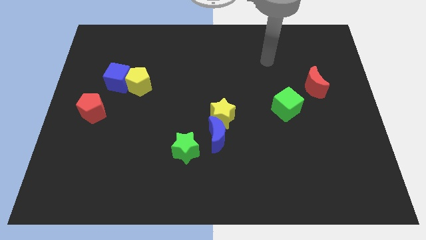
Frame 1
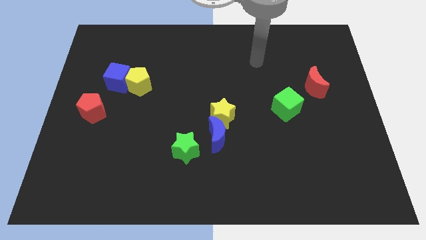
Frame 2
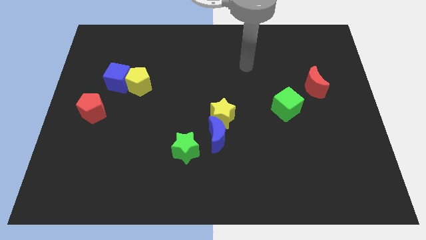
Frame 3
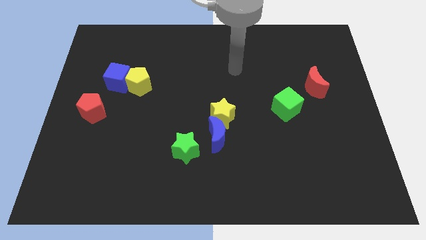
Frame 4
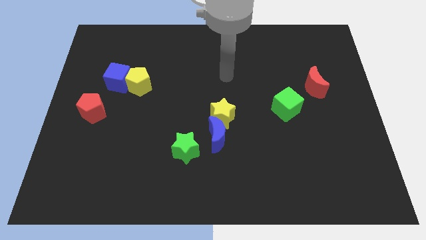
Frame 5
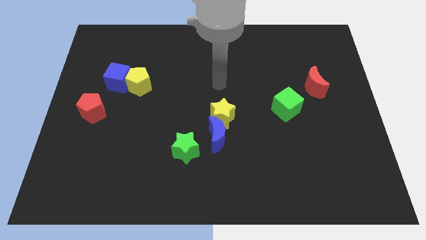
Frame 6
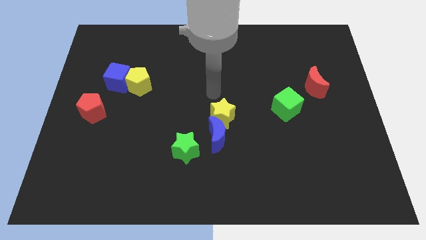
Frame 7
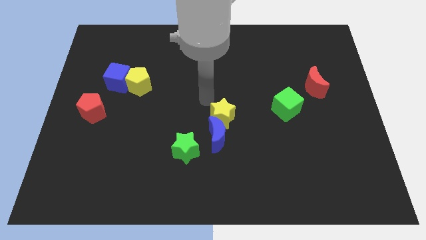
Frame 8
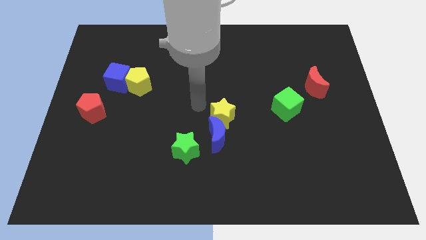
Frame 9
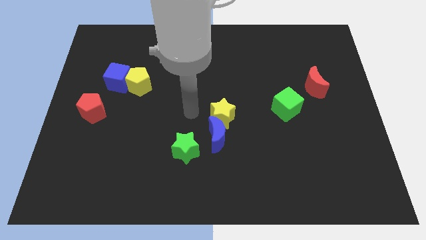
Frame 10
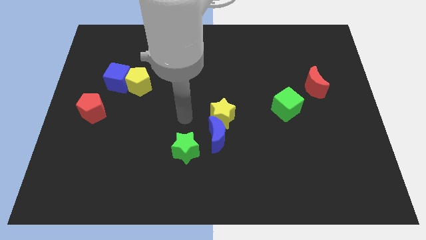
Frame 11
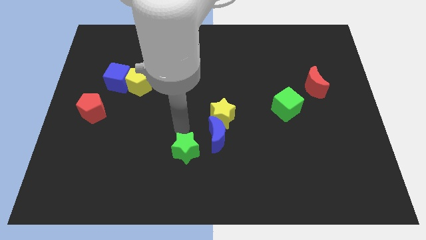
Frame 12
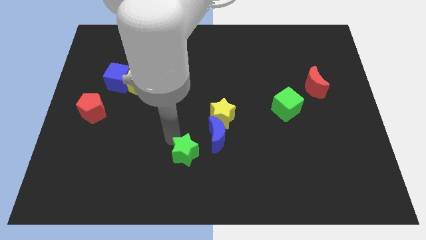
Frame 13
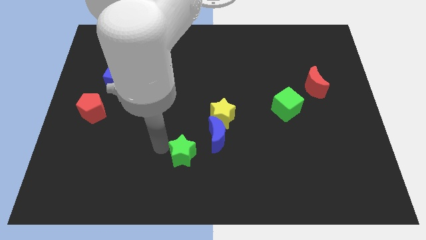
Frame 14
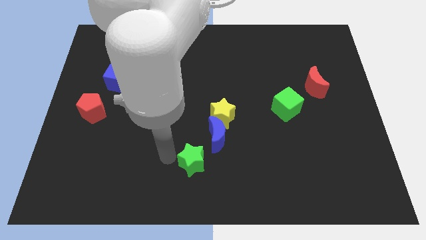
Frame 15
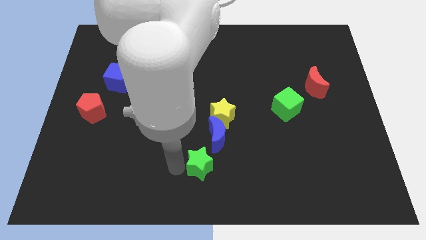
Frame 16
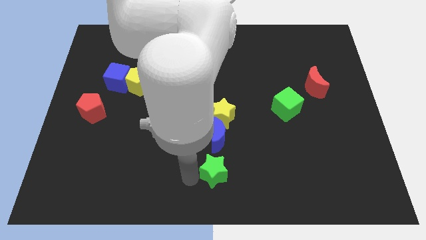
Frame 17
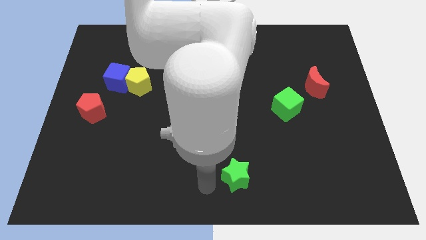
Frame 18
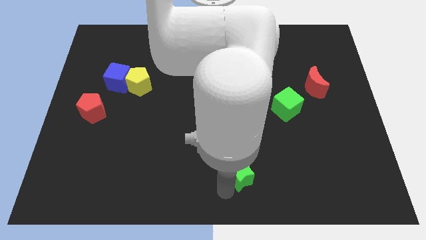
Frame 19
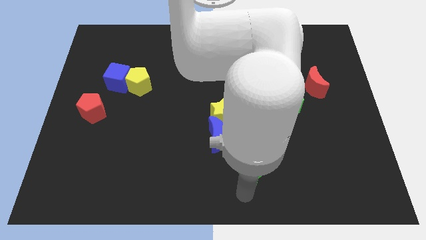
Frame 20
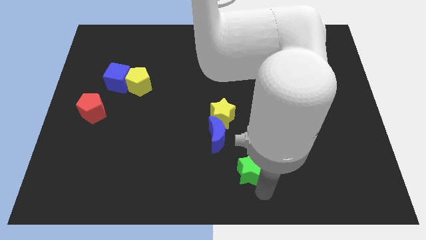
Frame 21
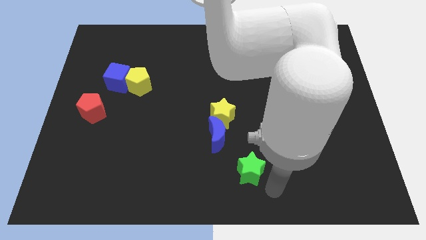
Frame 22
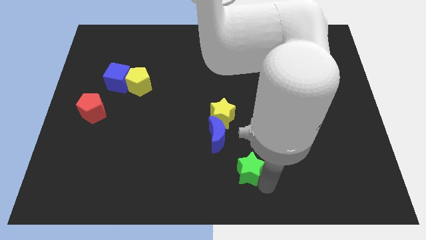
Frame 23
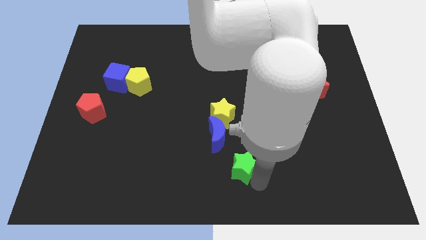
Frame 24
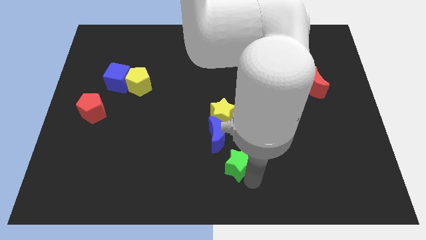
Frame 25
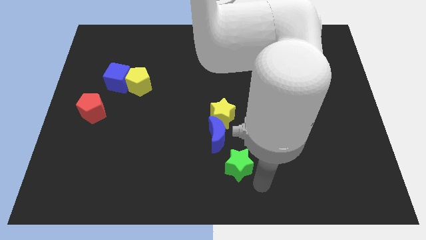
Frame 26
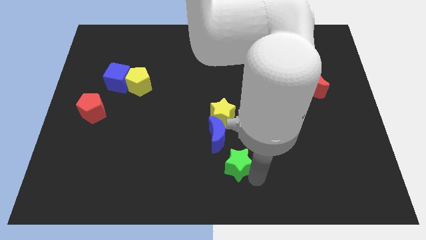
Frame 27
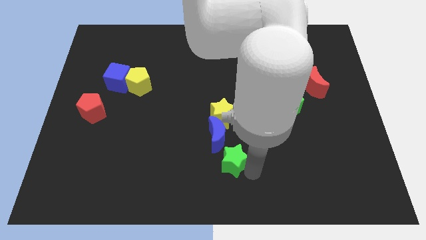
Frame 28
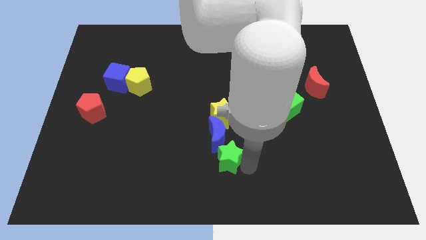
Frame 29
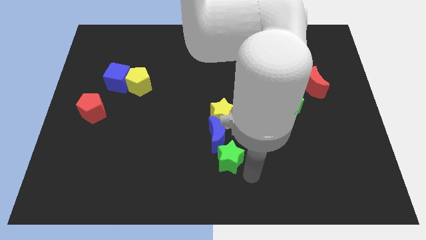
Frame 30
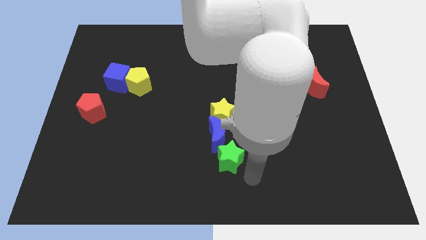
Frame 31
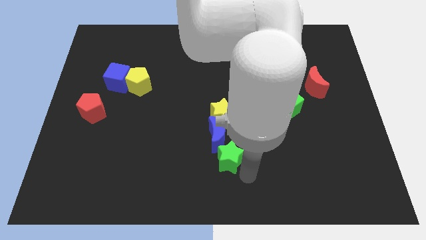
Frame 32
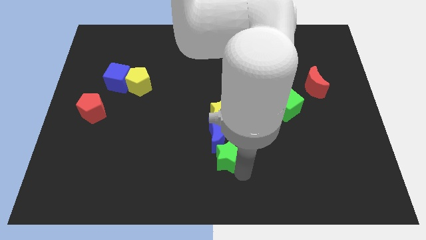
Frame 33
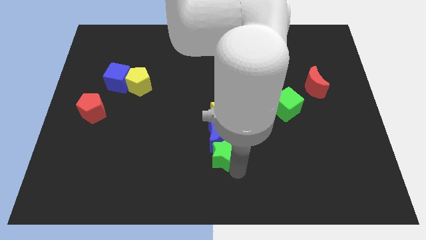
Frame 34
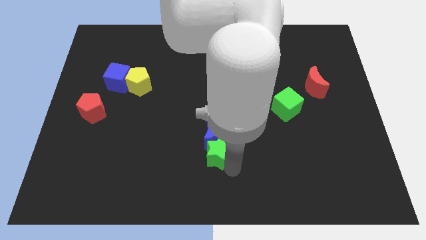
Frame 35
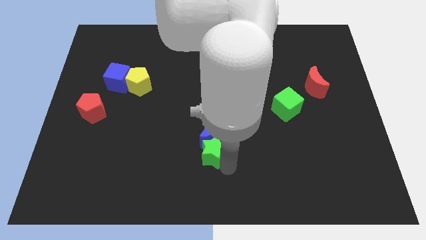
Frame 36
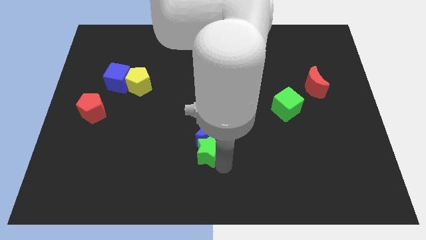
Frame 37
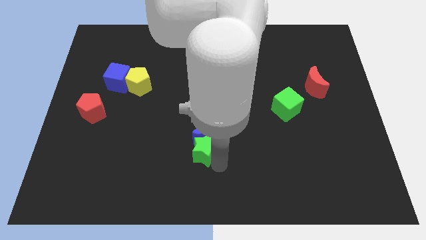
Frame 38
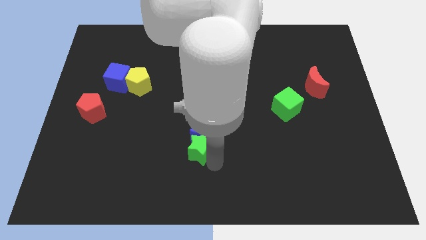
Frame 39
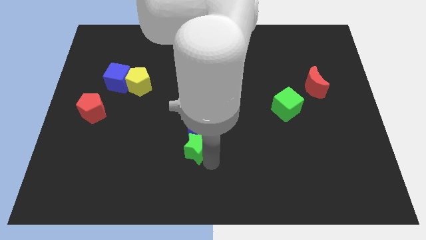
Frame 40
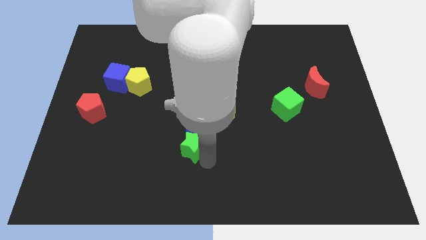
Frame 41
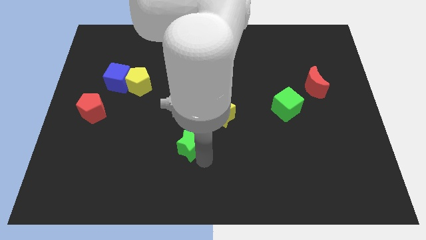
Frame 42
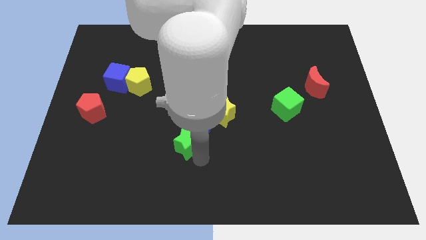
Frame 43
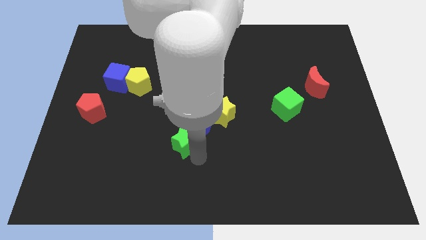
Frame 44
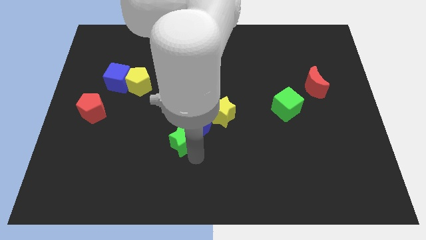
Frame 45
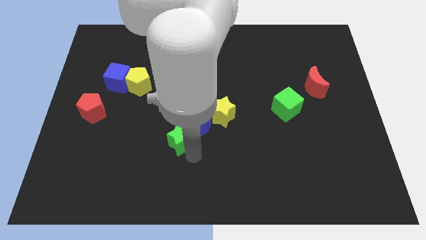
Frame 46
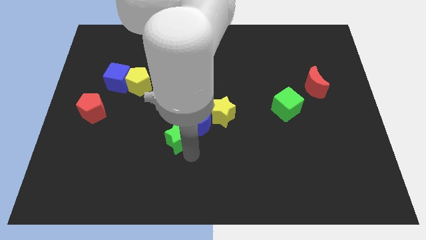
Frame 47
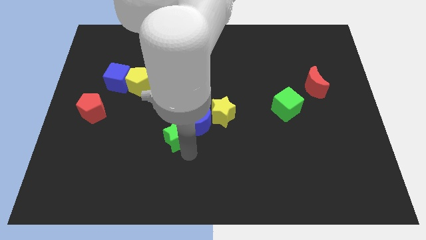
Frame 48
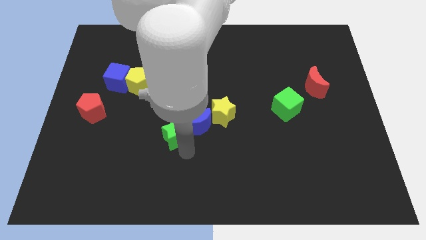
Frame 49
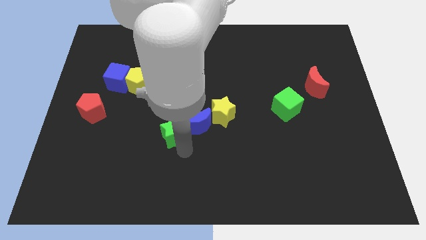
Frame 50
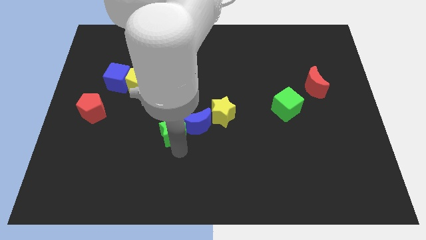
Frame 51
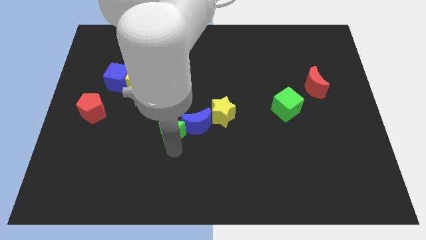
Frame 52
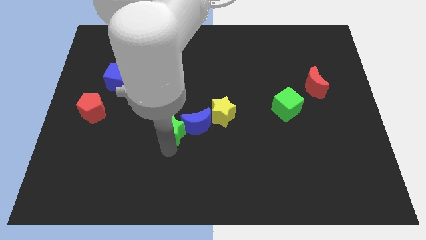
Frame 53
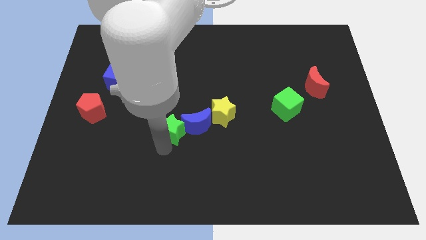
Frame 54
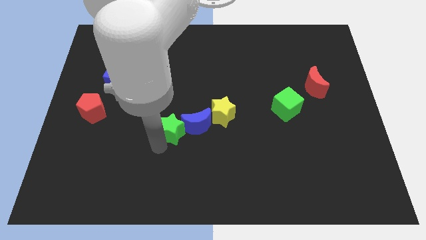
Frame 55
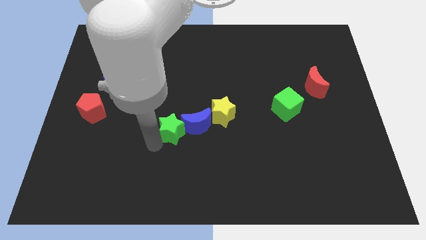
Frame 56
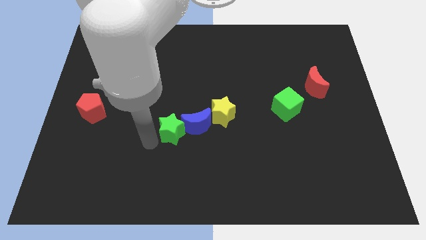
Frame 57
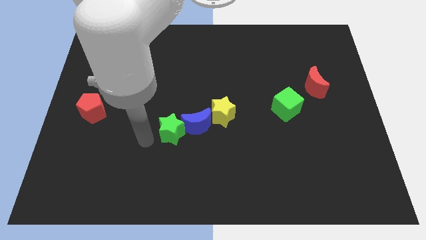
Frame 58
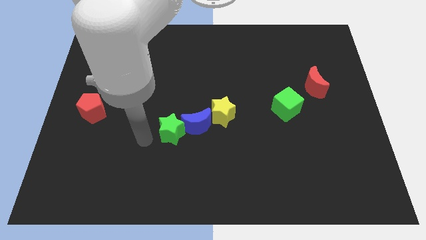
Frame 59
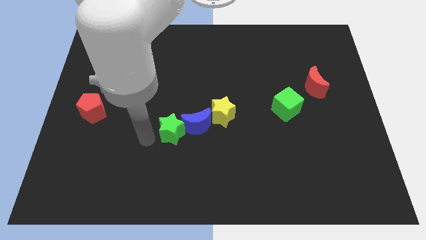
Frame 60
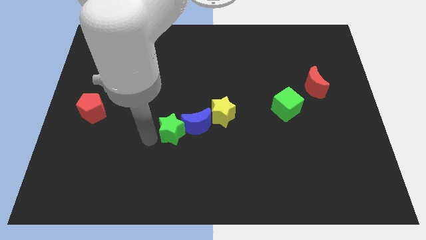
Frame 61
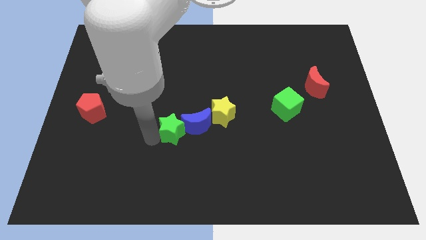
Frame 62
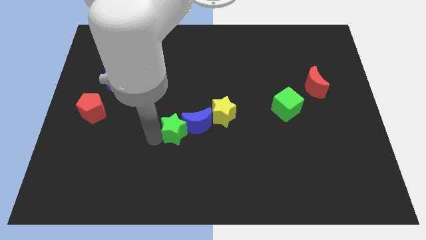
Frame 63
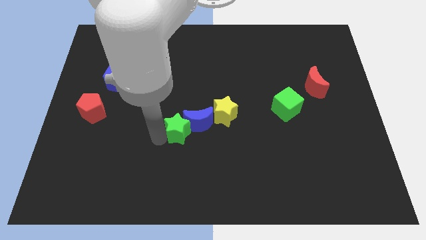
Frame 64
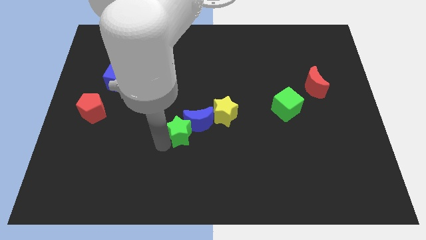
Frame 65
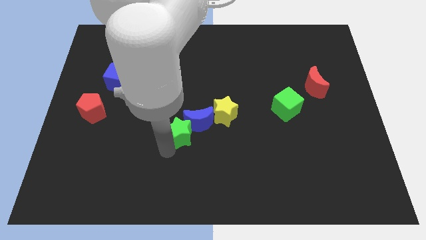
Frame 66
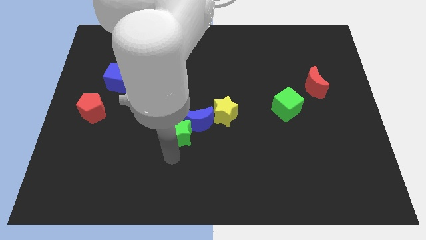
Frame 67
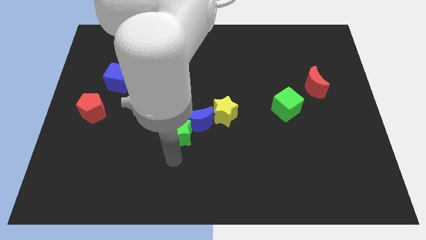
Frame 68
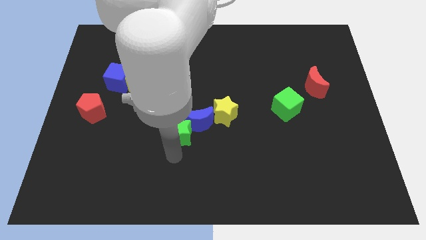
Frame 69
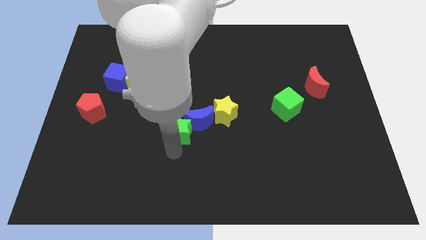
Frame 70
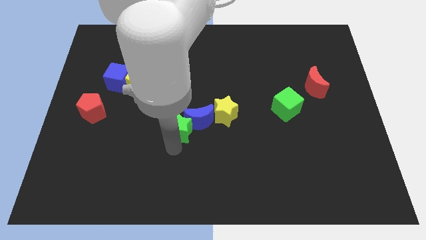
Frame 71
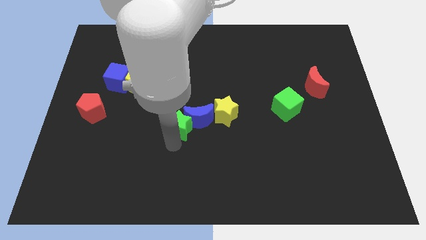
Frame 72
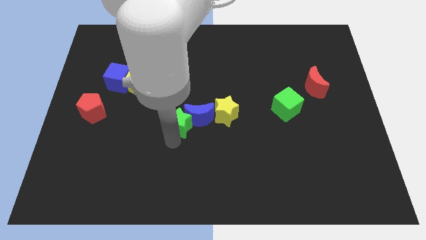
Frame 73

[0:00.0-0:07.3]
push the green star up somewhat

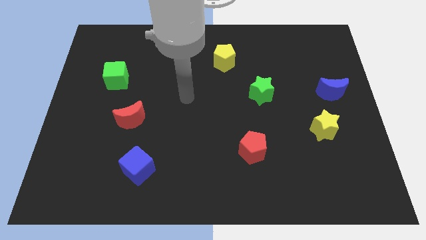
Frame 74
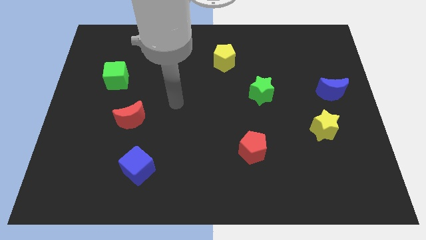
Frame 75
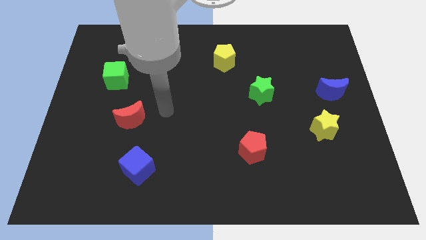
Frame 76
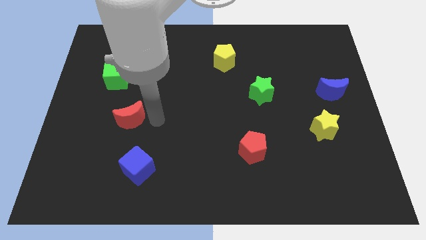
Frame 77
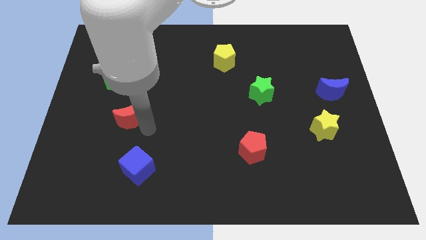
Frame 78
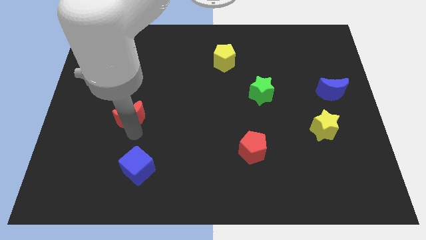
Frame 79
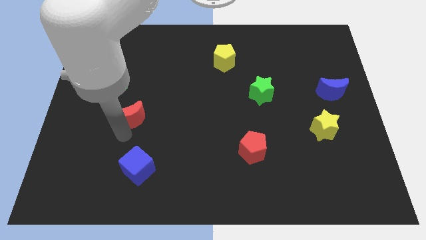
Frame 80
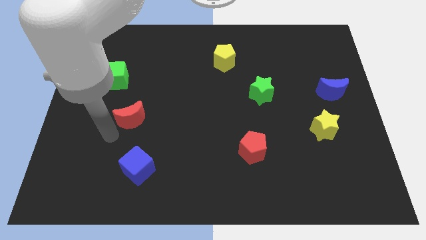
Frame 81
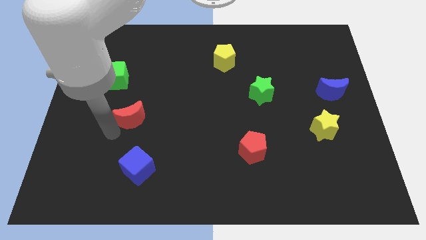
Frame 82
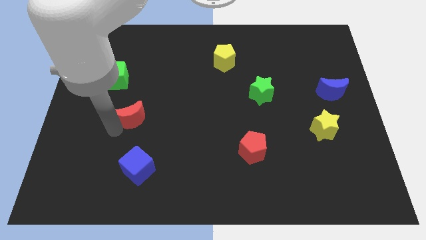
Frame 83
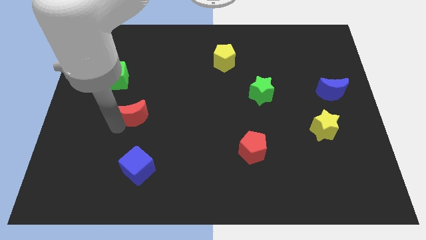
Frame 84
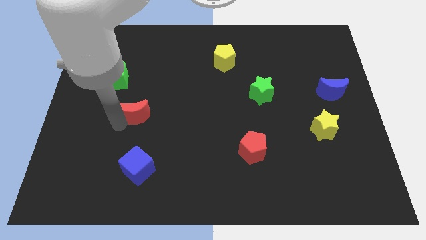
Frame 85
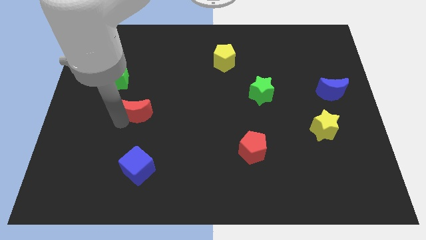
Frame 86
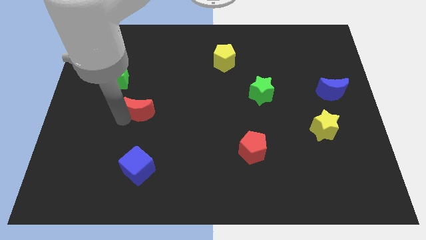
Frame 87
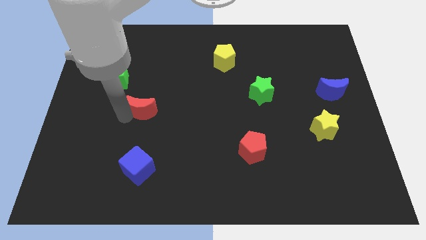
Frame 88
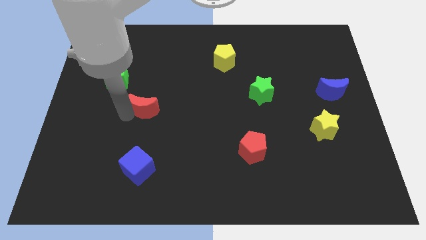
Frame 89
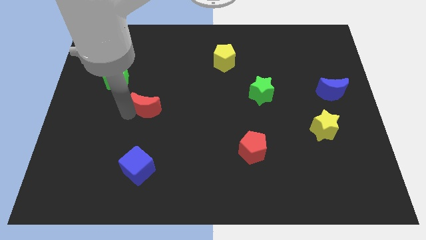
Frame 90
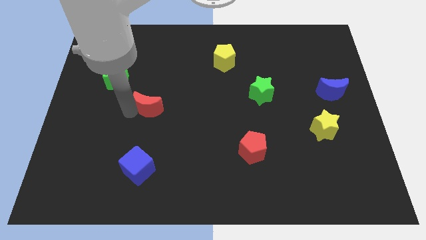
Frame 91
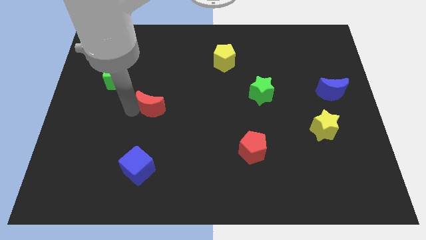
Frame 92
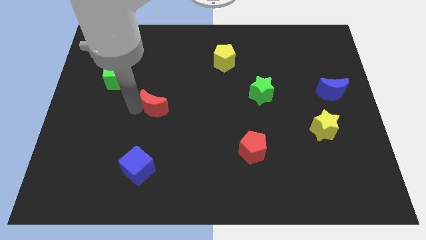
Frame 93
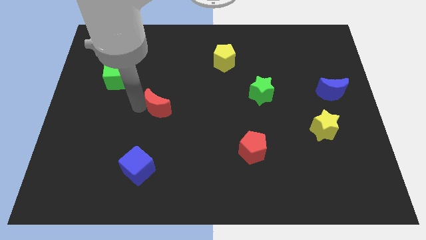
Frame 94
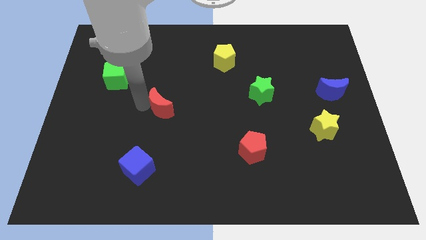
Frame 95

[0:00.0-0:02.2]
slide the red moon up and right diagonally a bit
